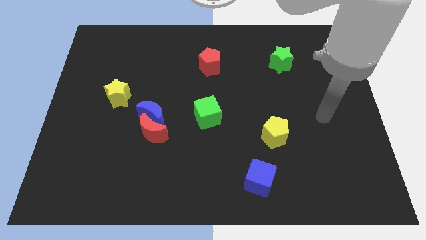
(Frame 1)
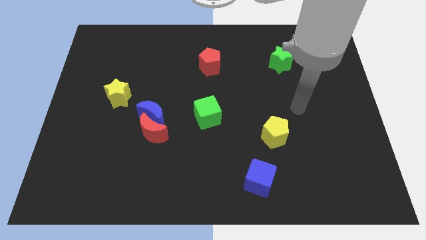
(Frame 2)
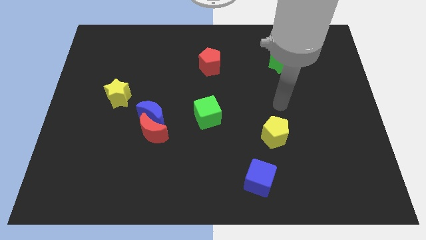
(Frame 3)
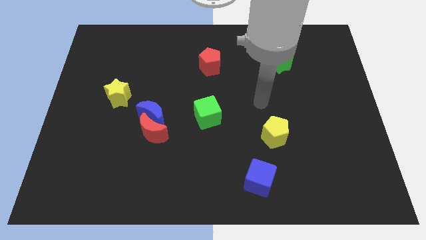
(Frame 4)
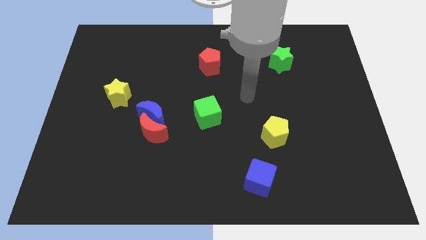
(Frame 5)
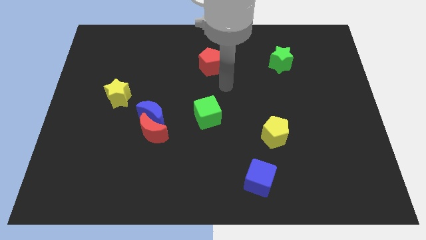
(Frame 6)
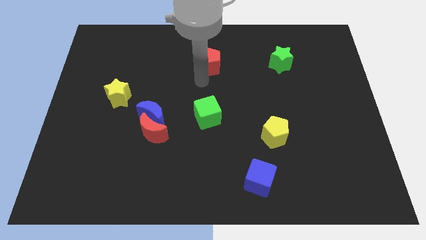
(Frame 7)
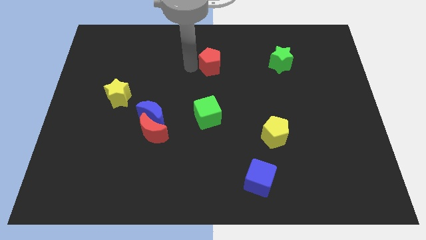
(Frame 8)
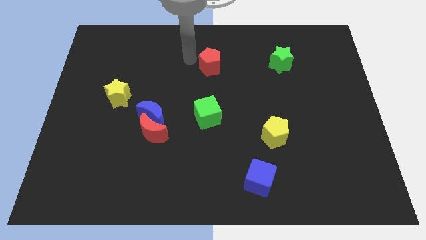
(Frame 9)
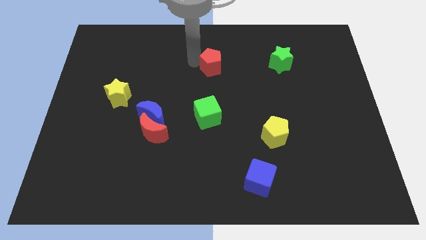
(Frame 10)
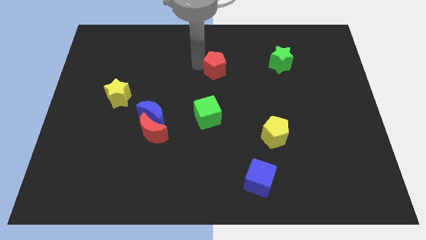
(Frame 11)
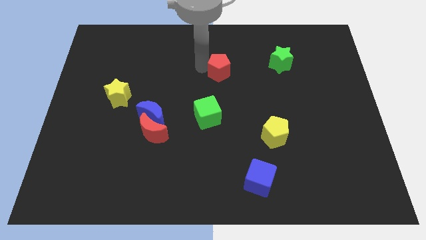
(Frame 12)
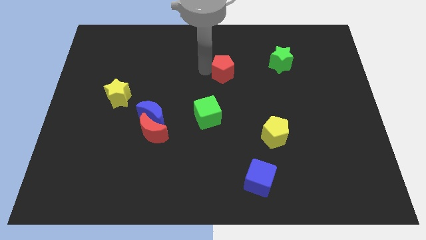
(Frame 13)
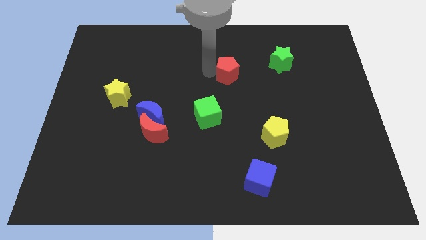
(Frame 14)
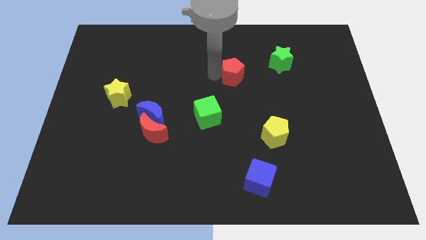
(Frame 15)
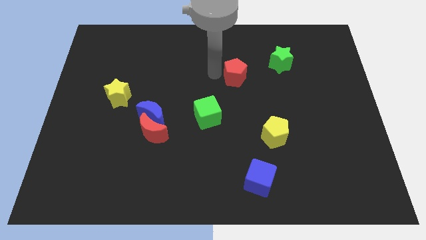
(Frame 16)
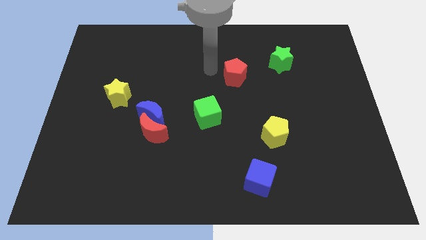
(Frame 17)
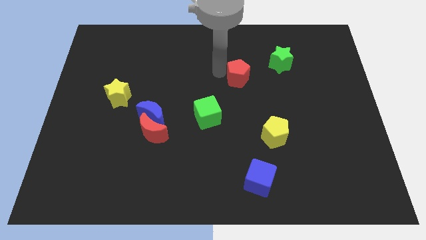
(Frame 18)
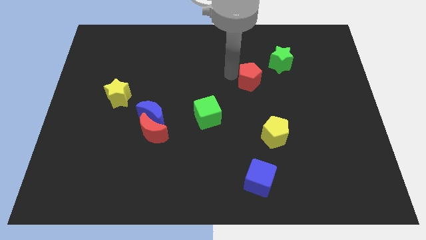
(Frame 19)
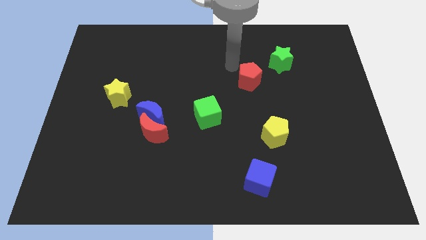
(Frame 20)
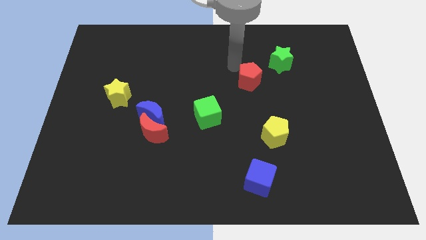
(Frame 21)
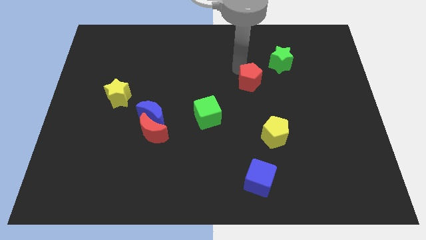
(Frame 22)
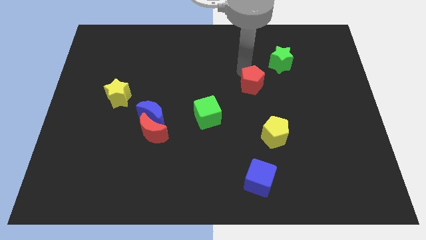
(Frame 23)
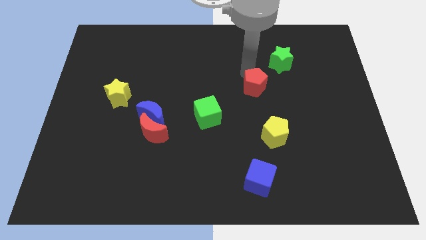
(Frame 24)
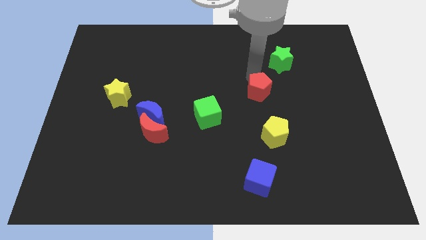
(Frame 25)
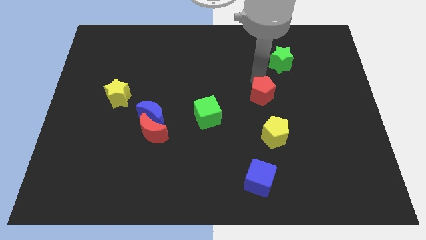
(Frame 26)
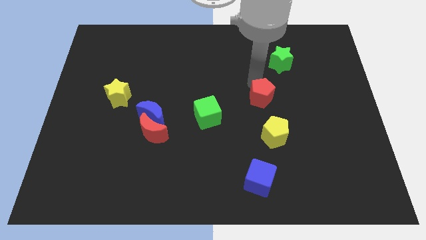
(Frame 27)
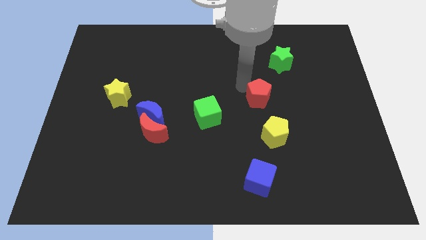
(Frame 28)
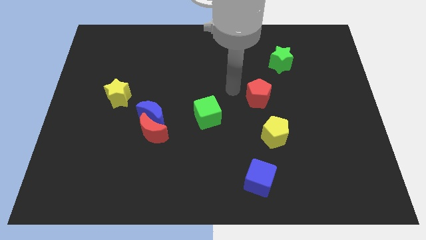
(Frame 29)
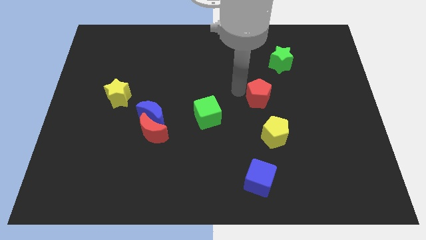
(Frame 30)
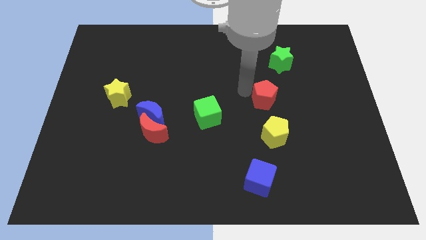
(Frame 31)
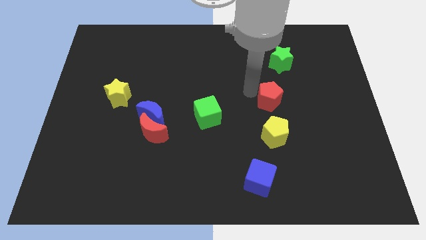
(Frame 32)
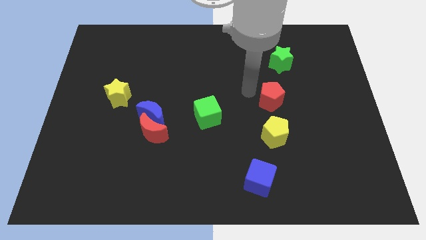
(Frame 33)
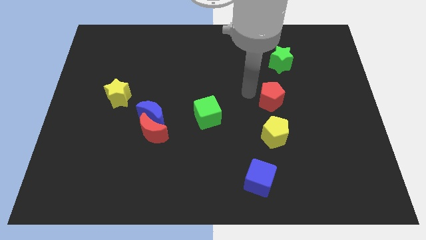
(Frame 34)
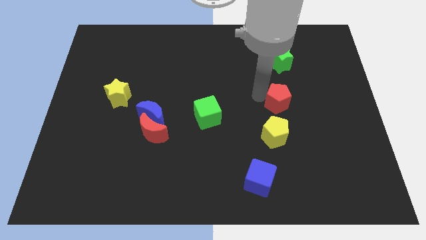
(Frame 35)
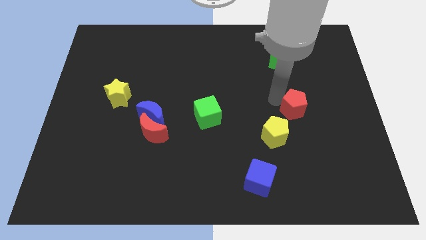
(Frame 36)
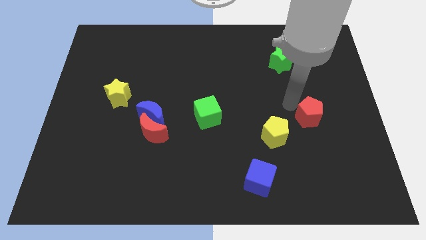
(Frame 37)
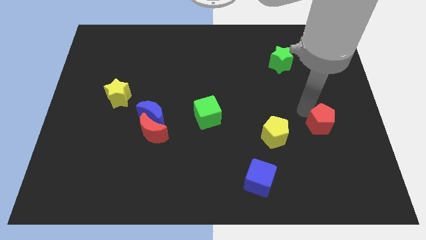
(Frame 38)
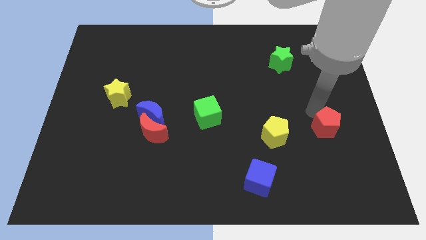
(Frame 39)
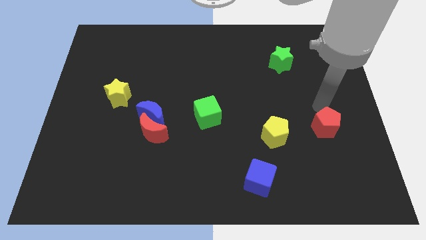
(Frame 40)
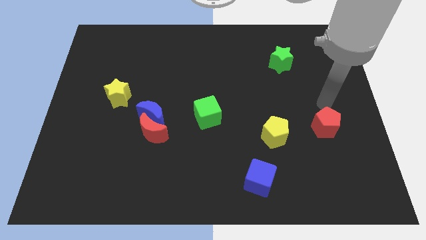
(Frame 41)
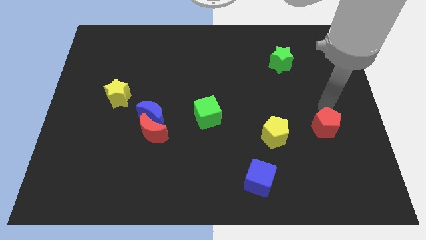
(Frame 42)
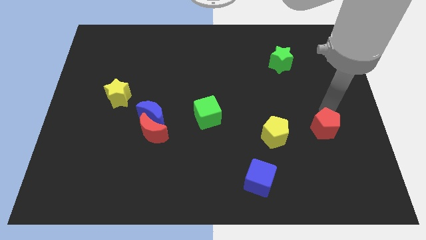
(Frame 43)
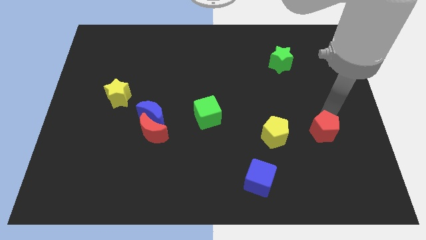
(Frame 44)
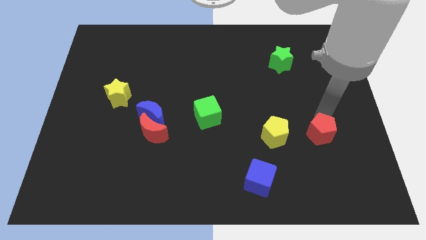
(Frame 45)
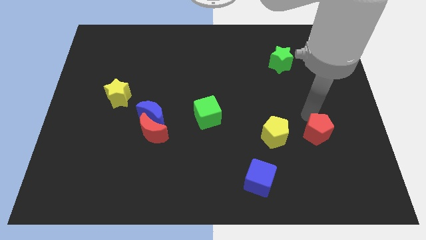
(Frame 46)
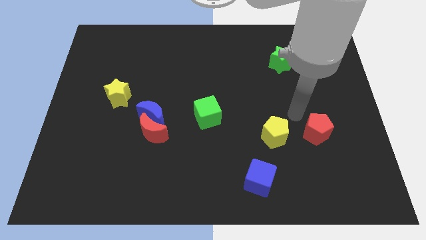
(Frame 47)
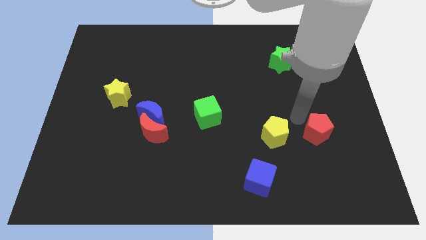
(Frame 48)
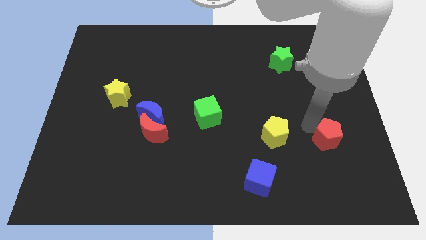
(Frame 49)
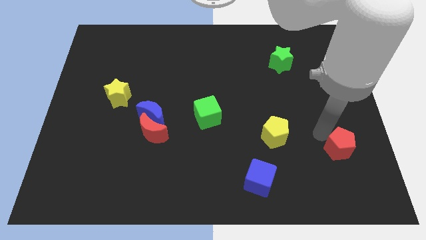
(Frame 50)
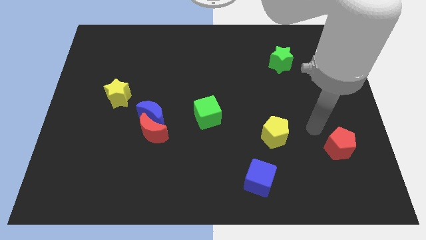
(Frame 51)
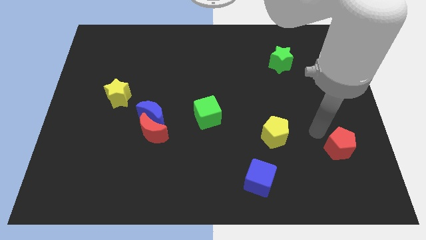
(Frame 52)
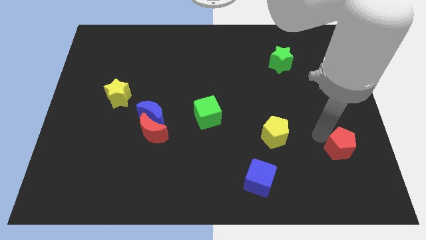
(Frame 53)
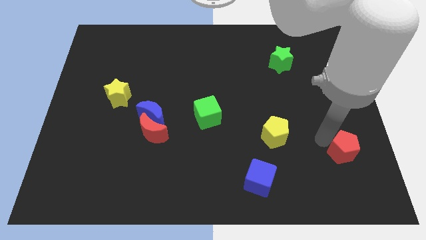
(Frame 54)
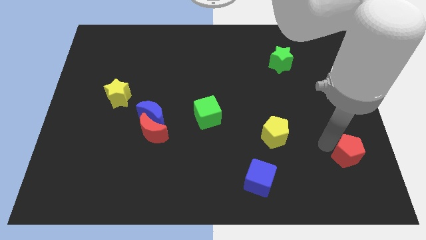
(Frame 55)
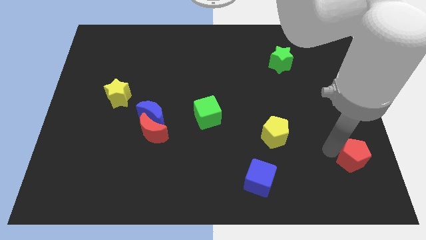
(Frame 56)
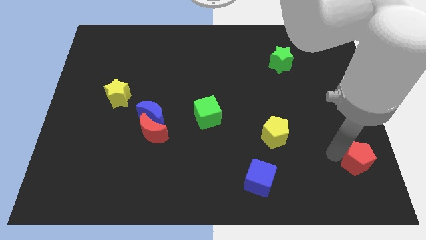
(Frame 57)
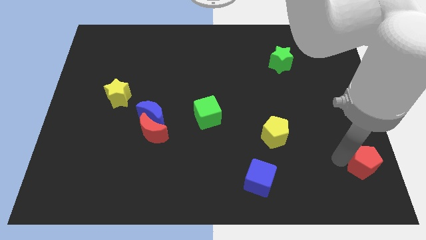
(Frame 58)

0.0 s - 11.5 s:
move the red pentagon to the lower right corner

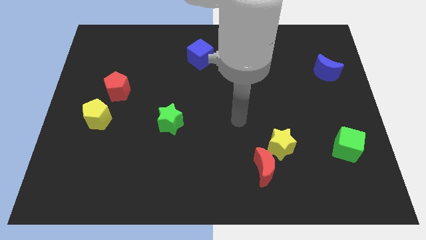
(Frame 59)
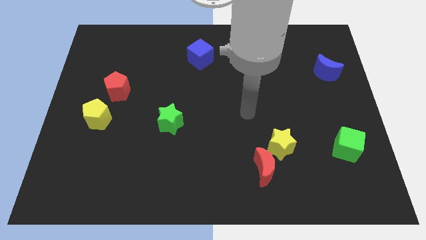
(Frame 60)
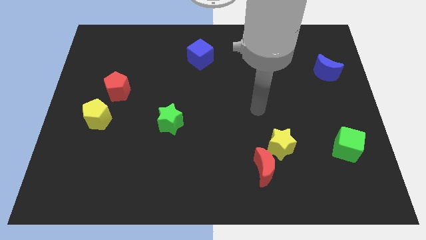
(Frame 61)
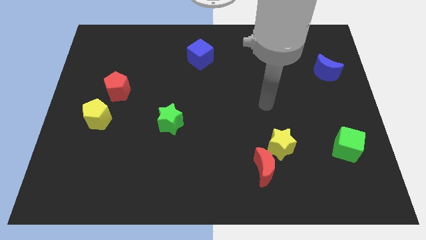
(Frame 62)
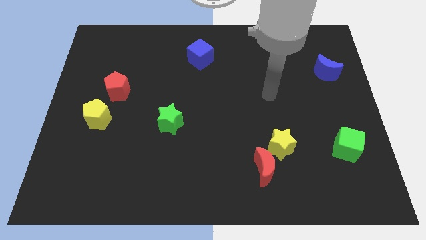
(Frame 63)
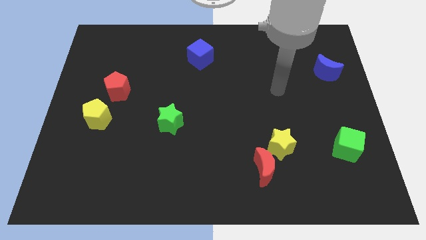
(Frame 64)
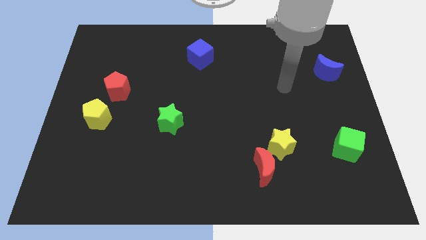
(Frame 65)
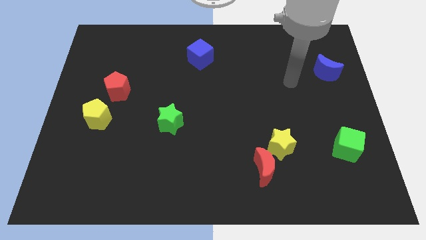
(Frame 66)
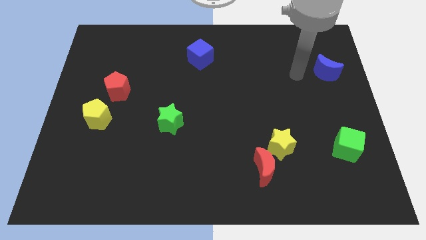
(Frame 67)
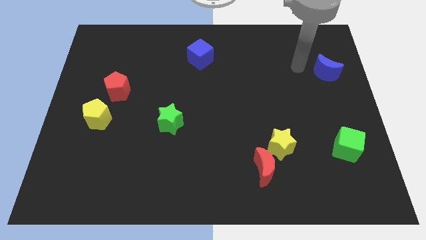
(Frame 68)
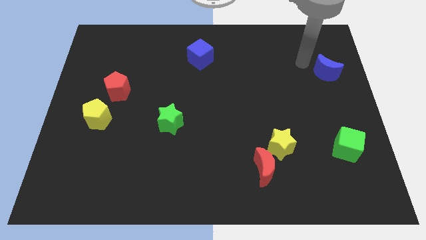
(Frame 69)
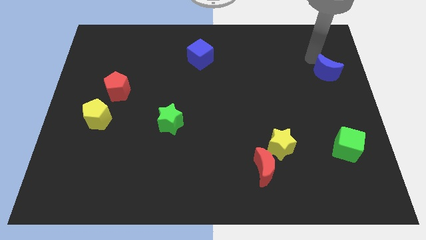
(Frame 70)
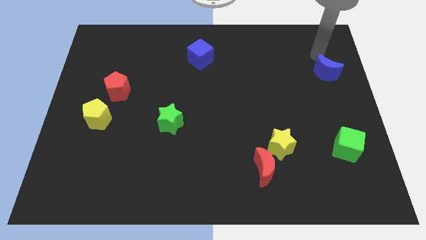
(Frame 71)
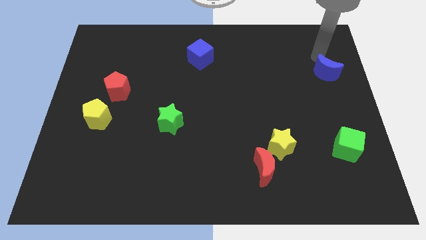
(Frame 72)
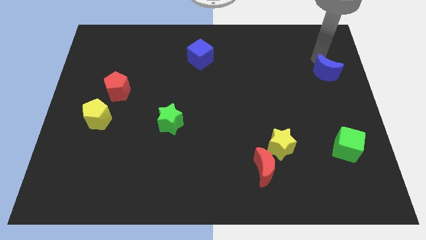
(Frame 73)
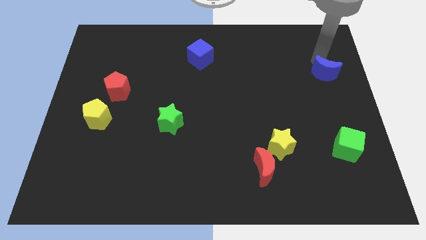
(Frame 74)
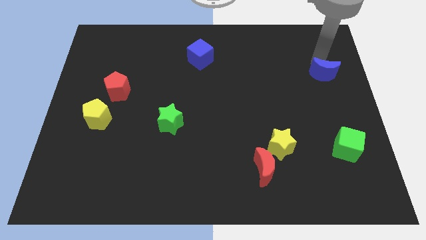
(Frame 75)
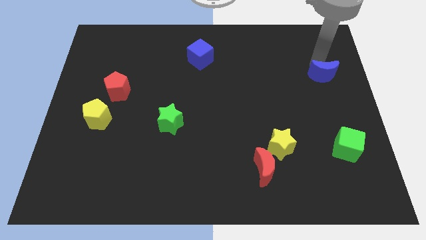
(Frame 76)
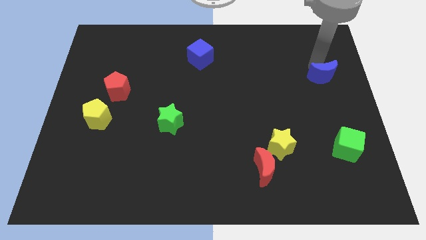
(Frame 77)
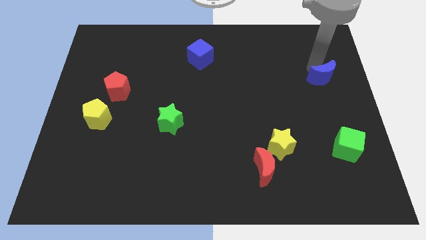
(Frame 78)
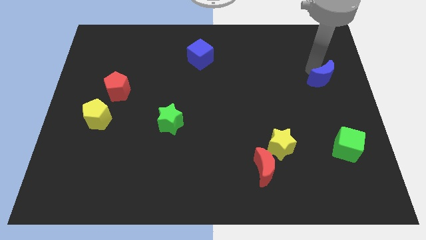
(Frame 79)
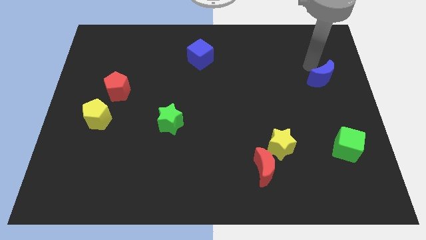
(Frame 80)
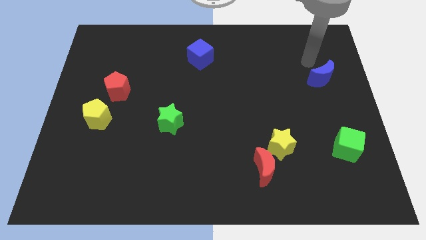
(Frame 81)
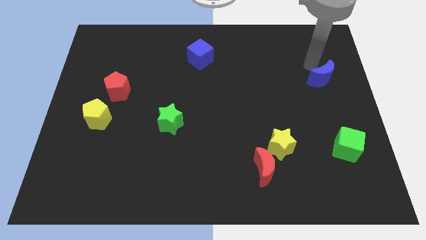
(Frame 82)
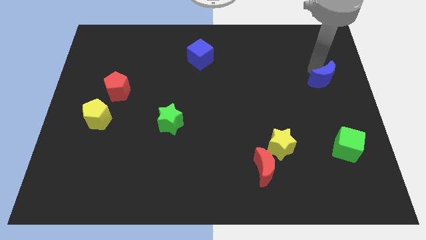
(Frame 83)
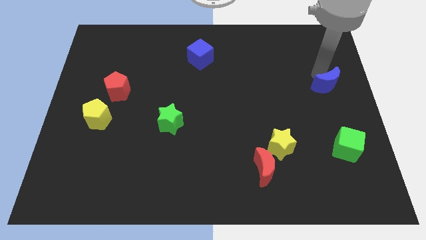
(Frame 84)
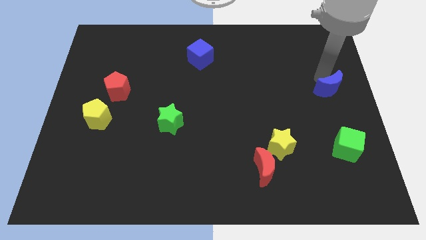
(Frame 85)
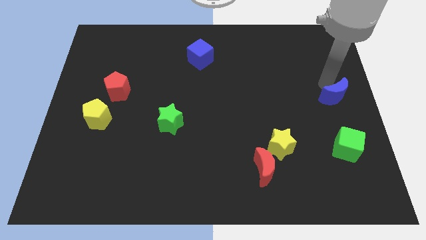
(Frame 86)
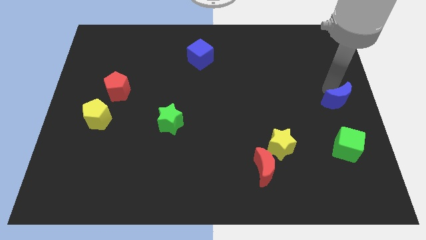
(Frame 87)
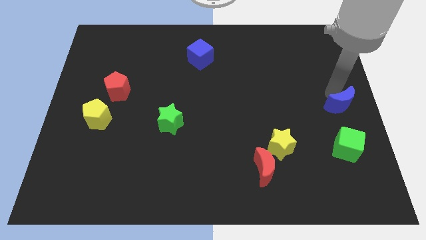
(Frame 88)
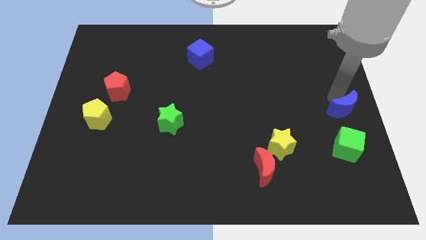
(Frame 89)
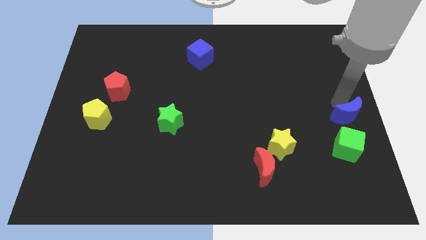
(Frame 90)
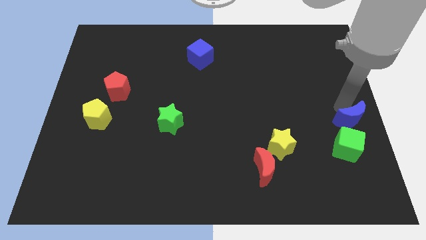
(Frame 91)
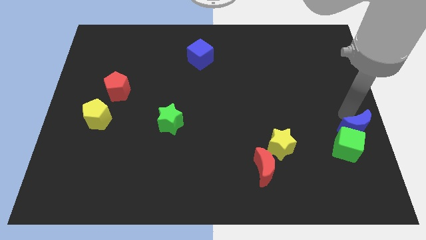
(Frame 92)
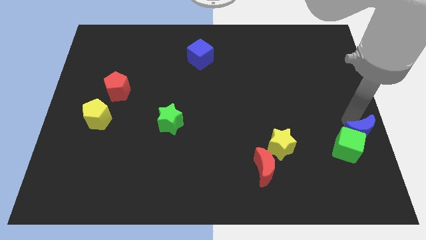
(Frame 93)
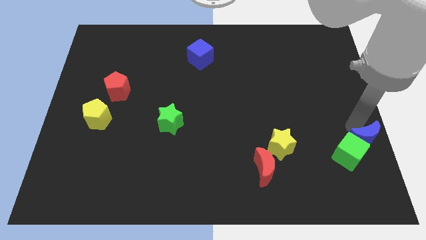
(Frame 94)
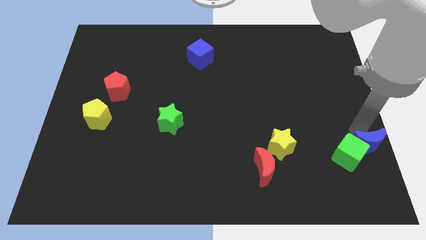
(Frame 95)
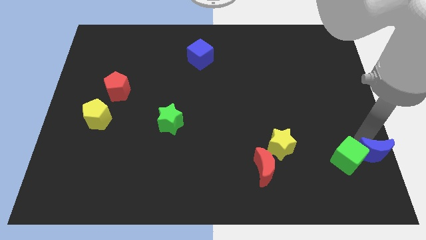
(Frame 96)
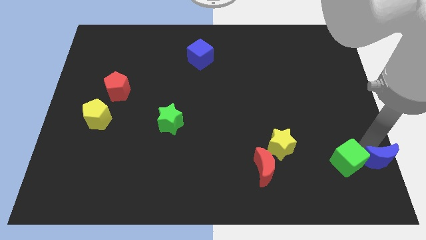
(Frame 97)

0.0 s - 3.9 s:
put the blue moon to the bottom right
